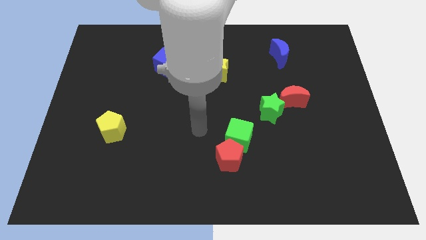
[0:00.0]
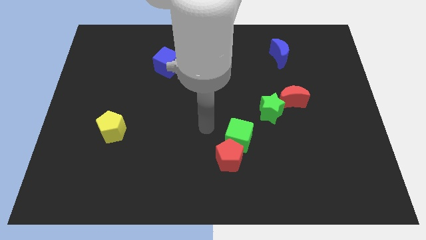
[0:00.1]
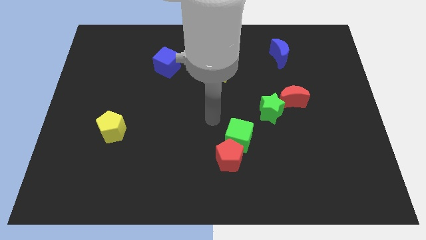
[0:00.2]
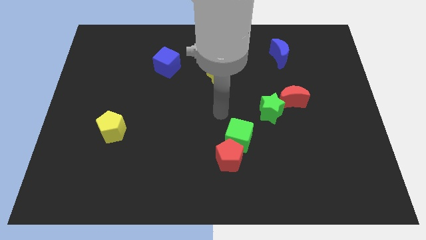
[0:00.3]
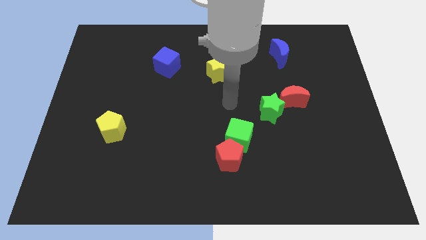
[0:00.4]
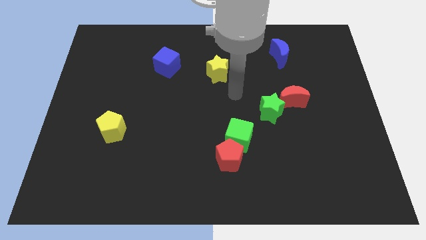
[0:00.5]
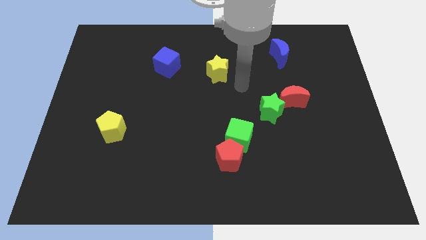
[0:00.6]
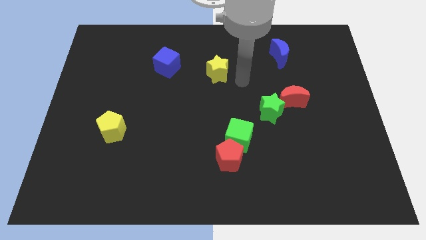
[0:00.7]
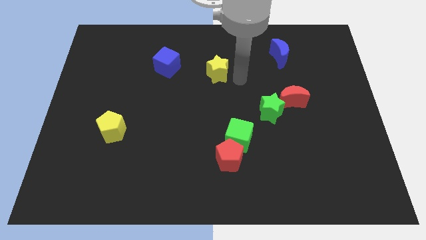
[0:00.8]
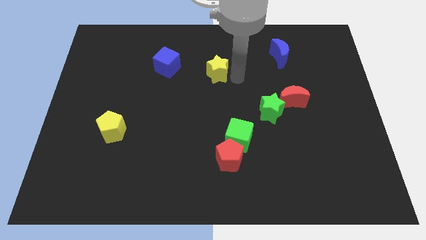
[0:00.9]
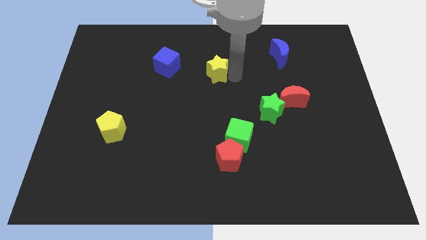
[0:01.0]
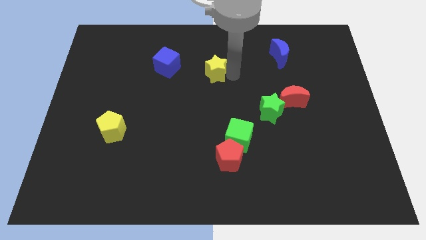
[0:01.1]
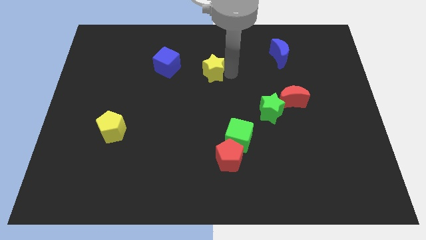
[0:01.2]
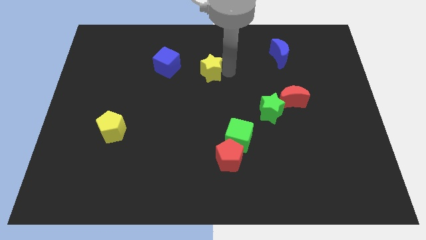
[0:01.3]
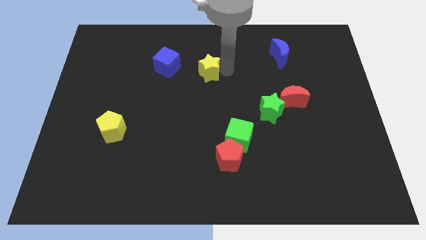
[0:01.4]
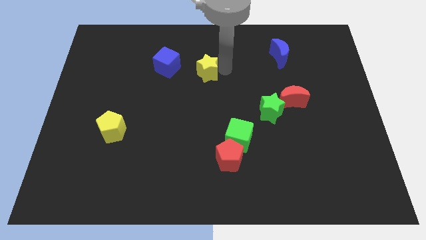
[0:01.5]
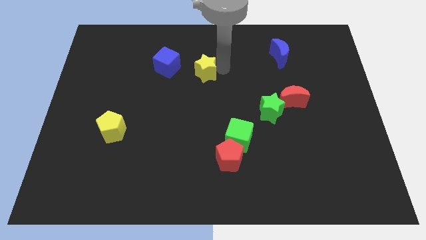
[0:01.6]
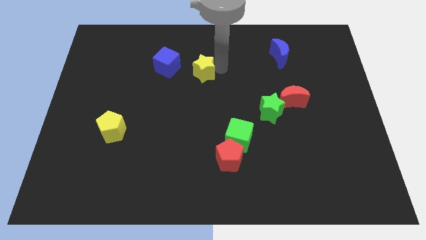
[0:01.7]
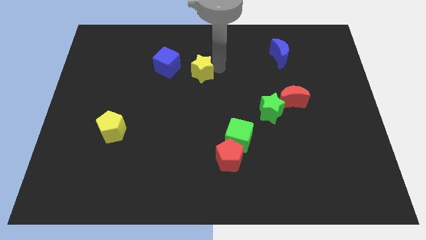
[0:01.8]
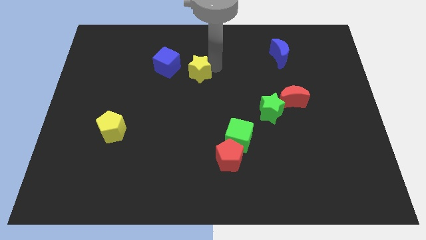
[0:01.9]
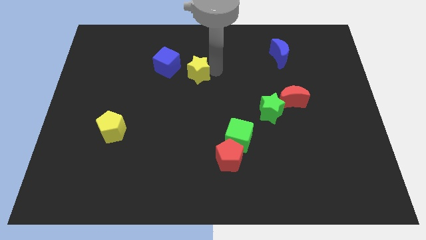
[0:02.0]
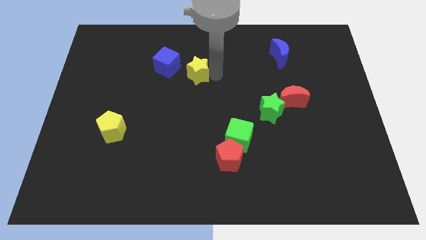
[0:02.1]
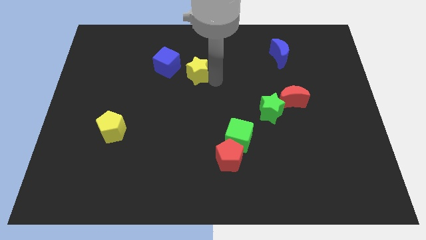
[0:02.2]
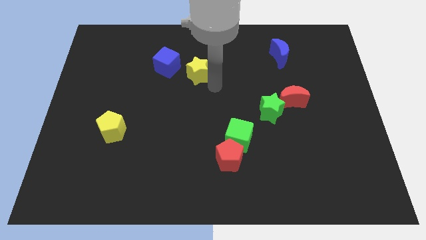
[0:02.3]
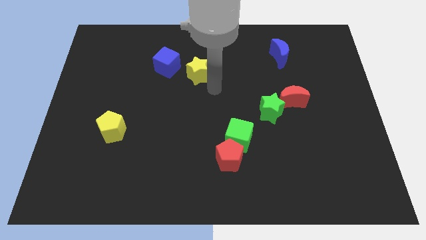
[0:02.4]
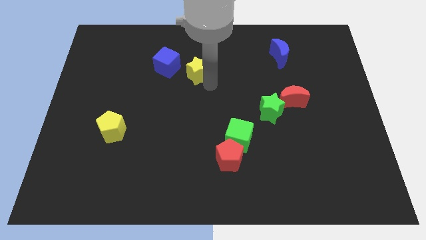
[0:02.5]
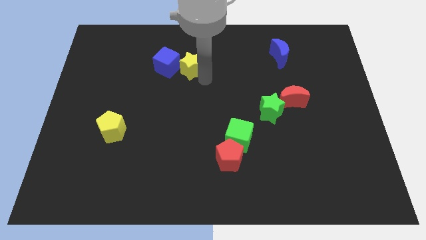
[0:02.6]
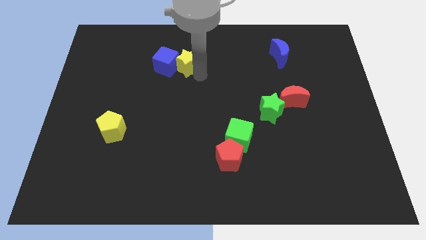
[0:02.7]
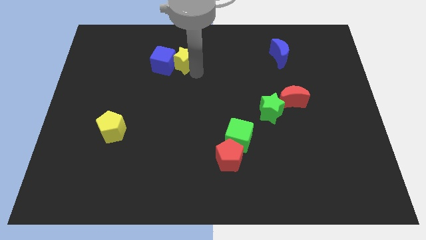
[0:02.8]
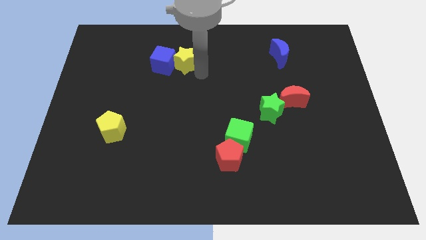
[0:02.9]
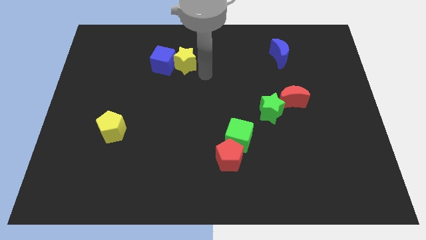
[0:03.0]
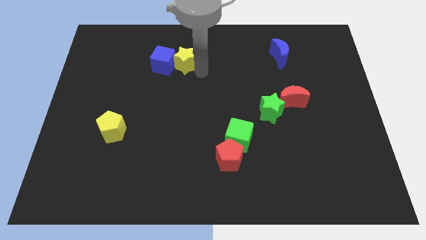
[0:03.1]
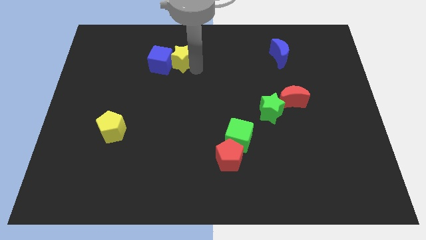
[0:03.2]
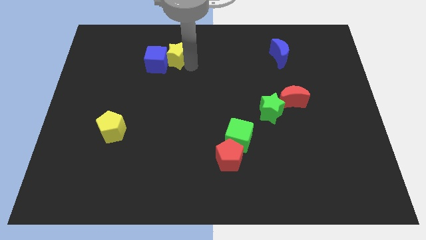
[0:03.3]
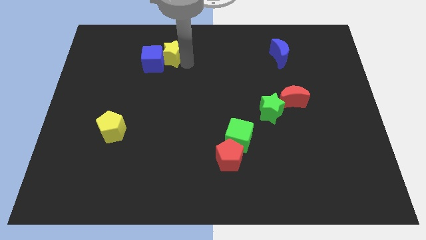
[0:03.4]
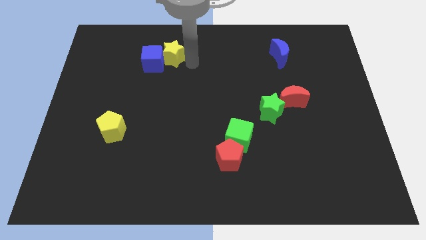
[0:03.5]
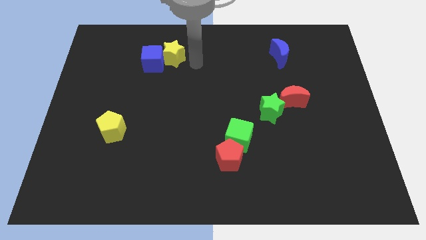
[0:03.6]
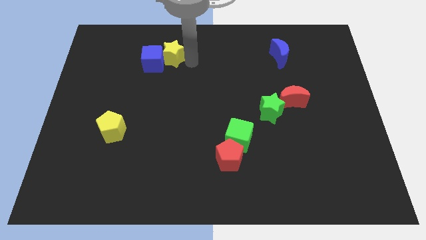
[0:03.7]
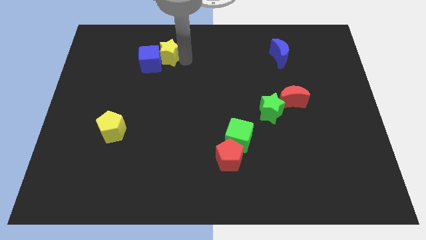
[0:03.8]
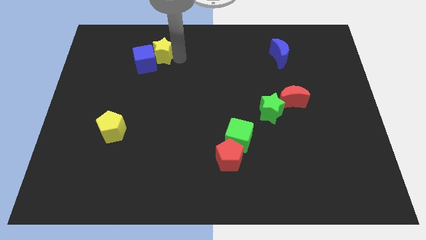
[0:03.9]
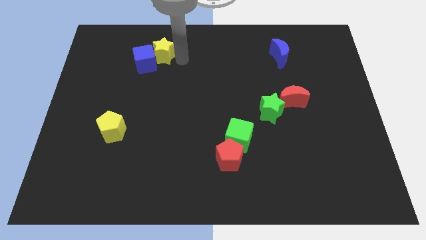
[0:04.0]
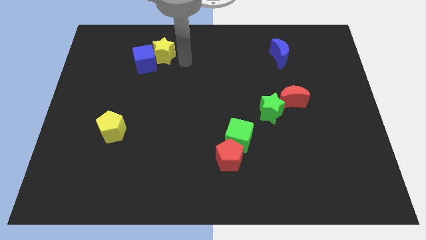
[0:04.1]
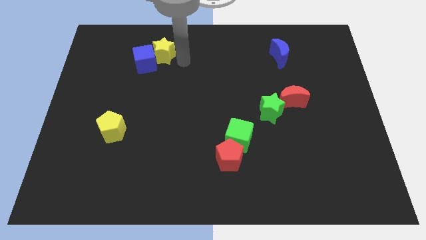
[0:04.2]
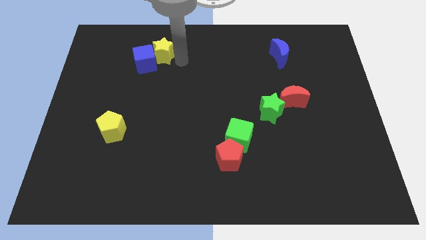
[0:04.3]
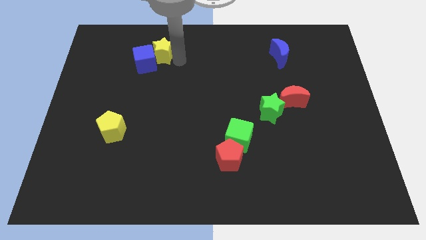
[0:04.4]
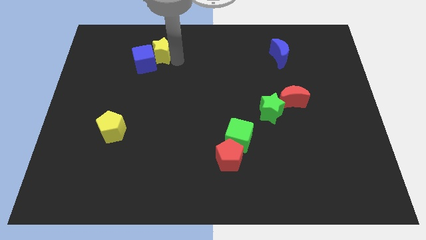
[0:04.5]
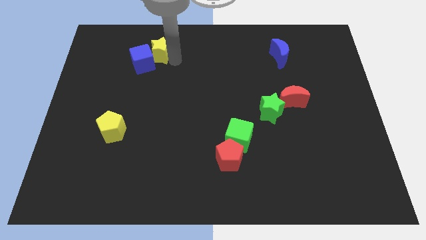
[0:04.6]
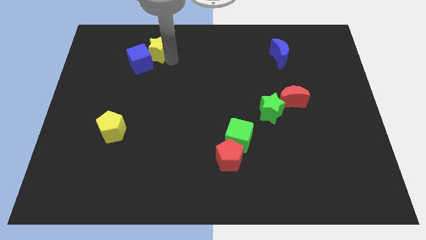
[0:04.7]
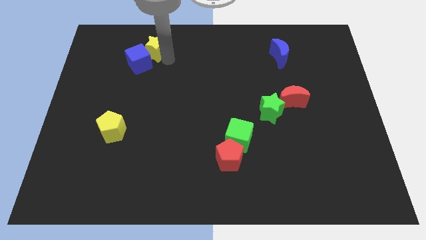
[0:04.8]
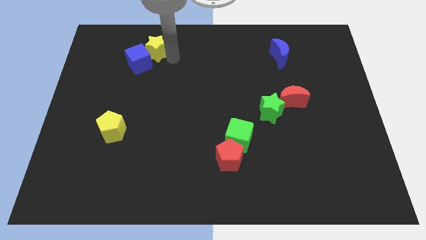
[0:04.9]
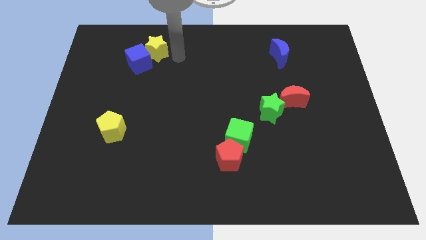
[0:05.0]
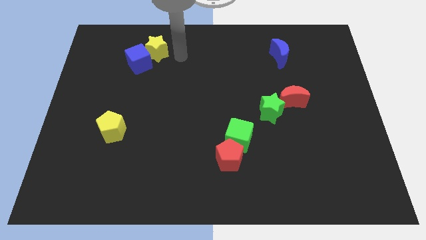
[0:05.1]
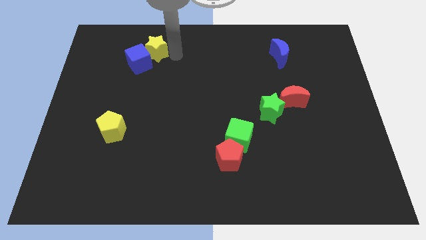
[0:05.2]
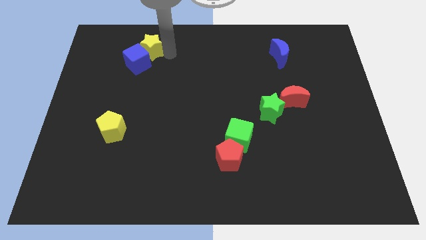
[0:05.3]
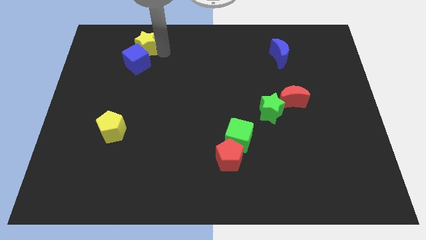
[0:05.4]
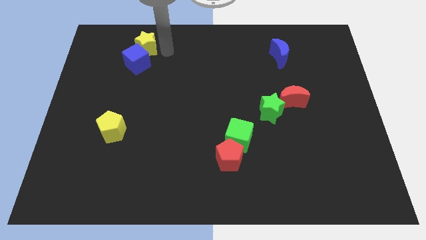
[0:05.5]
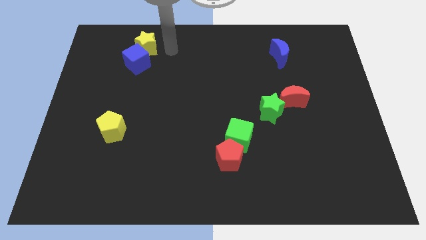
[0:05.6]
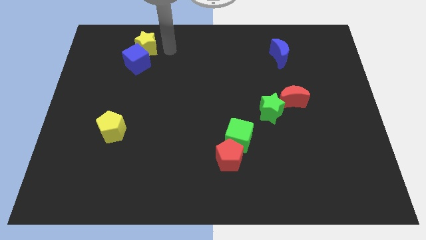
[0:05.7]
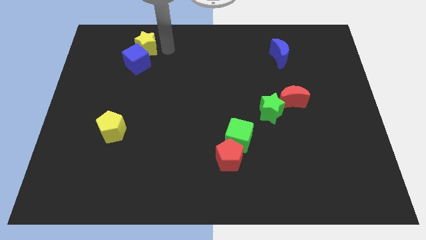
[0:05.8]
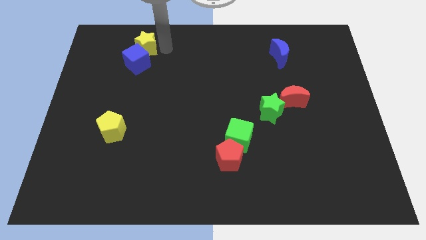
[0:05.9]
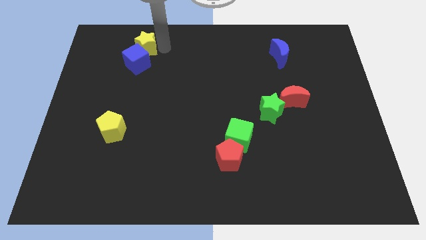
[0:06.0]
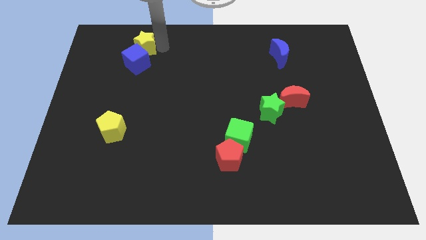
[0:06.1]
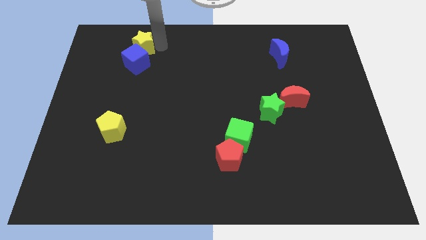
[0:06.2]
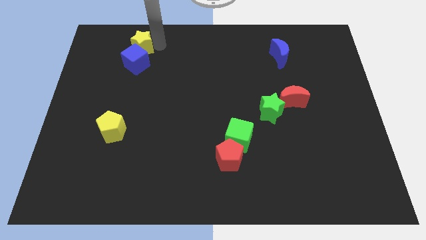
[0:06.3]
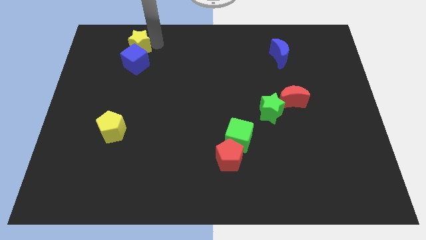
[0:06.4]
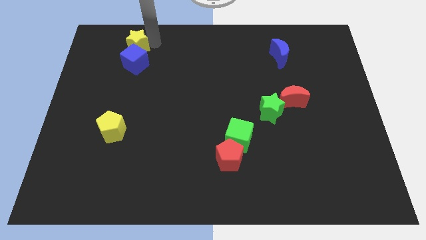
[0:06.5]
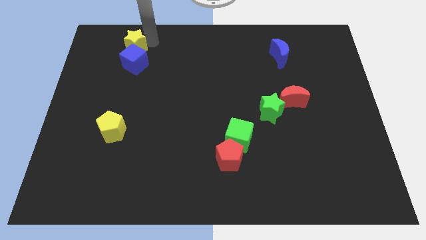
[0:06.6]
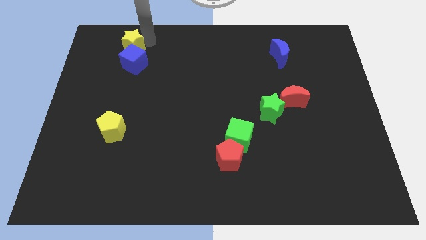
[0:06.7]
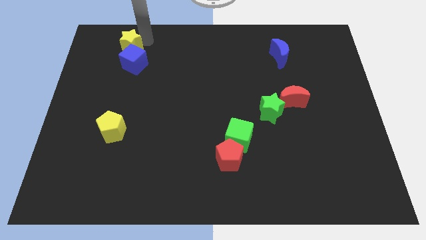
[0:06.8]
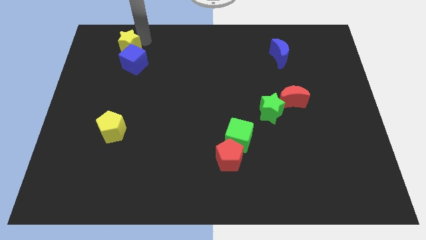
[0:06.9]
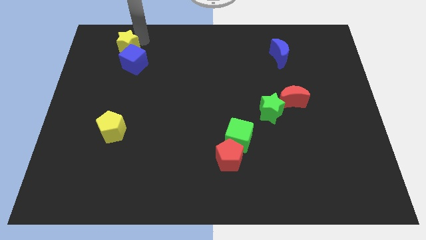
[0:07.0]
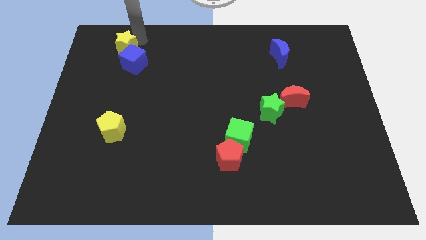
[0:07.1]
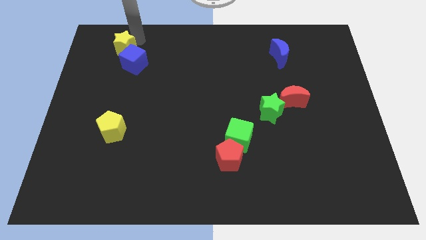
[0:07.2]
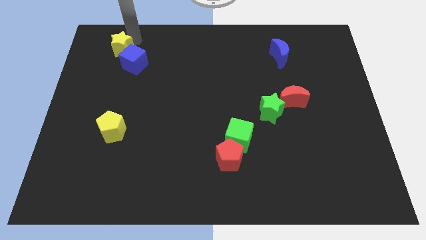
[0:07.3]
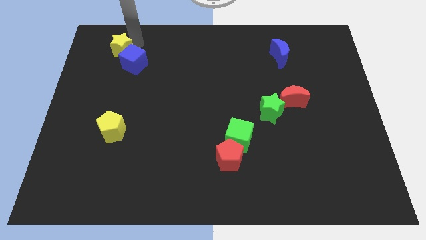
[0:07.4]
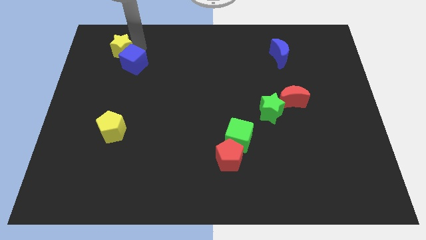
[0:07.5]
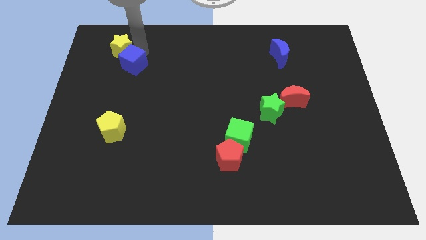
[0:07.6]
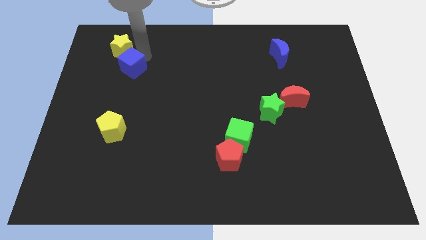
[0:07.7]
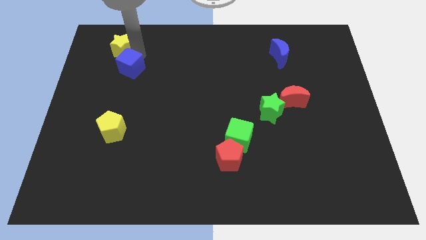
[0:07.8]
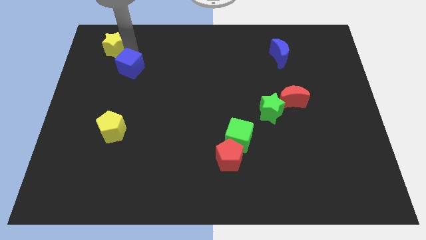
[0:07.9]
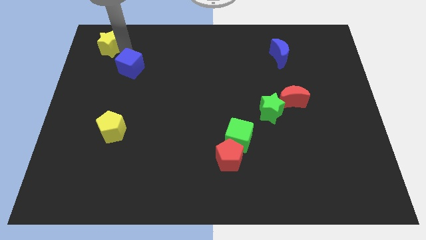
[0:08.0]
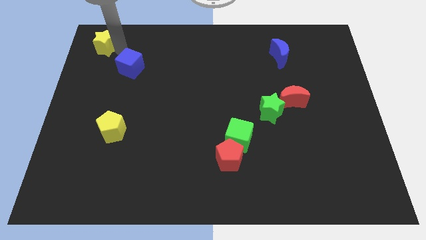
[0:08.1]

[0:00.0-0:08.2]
push the yellow star to the top left
